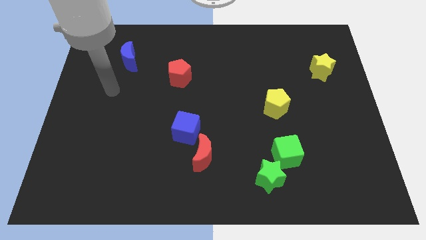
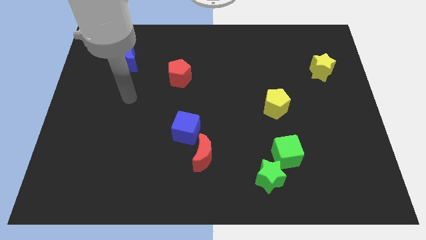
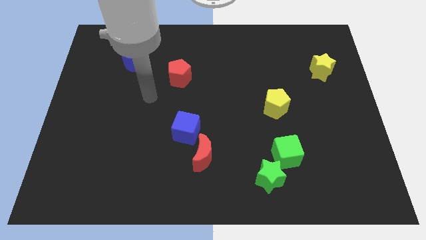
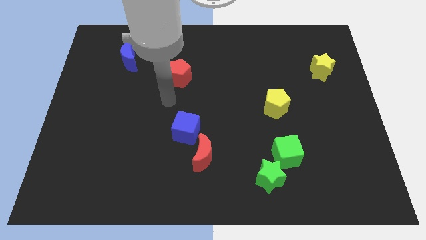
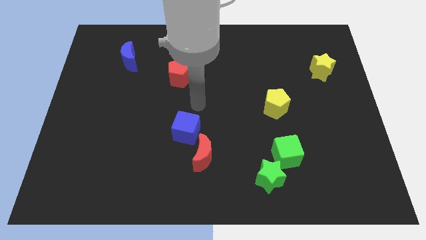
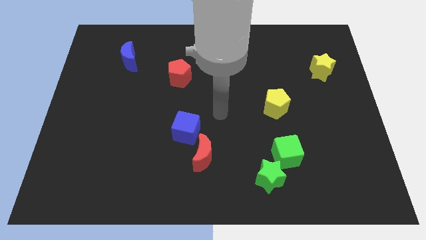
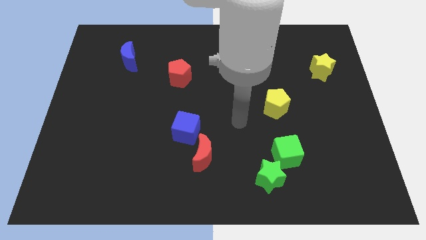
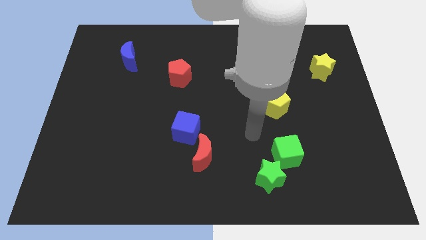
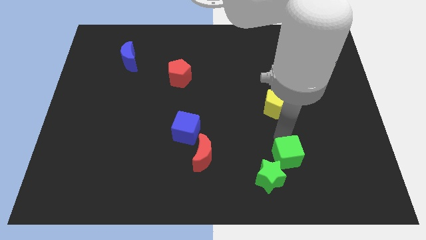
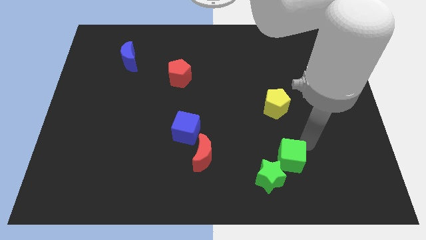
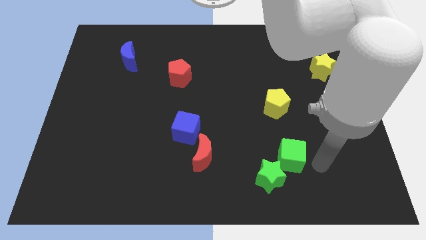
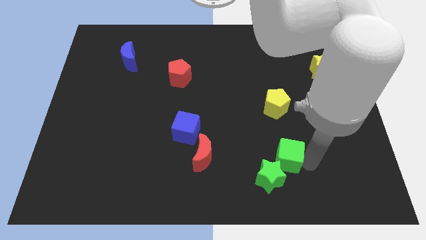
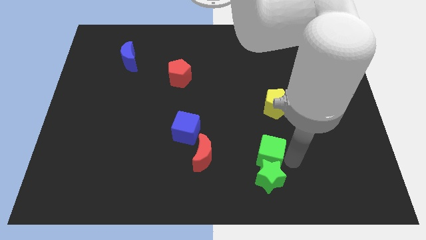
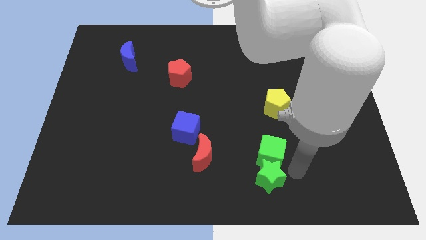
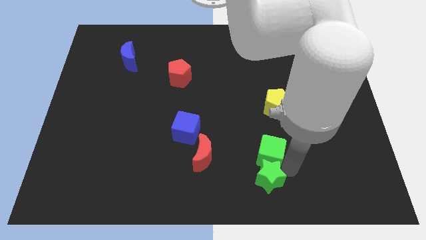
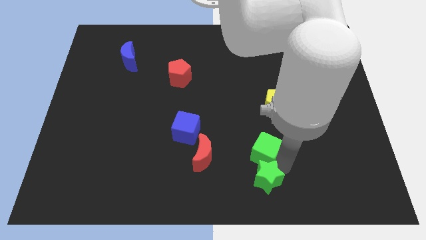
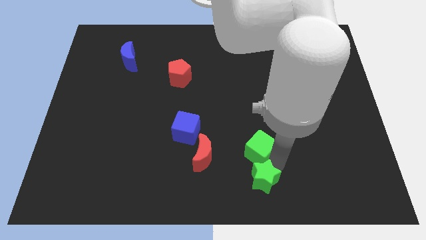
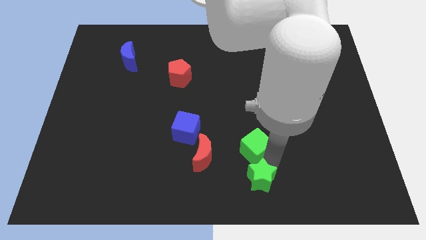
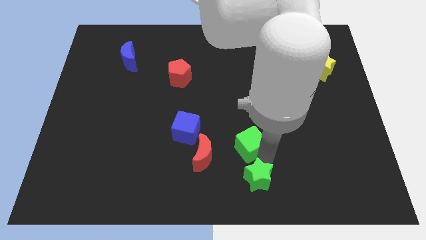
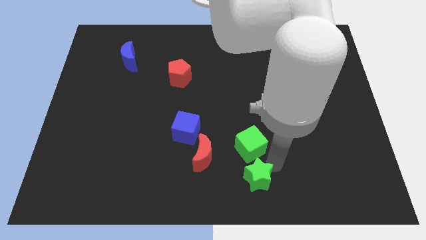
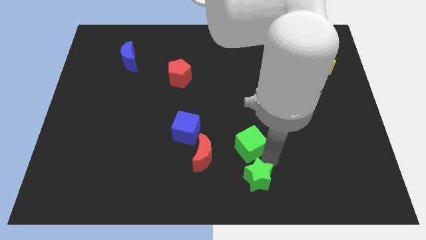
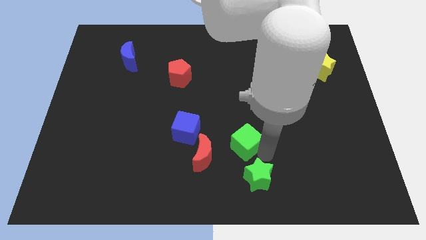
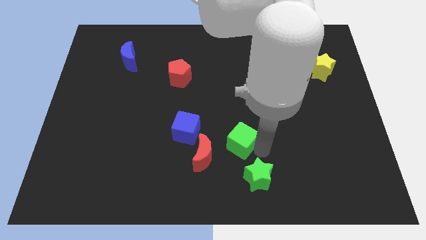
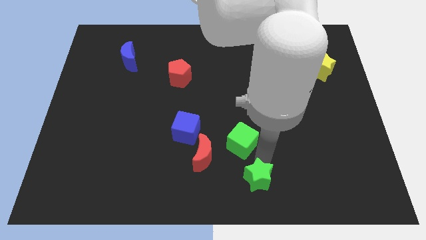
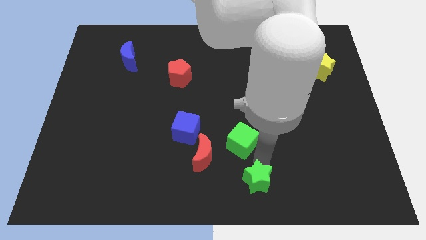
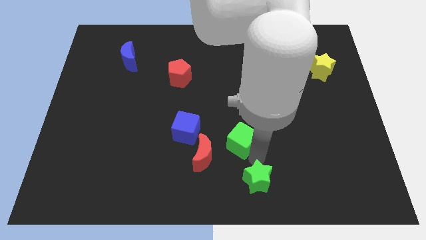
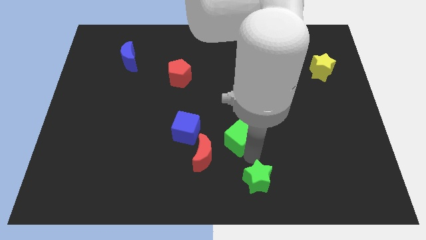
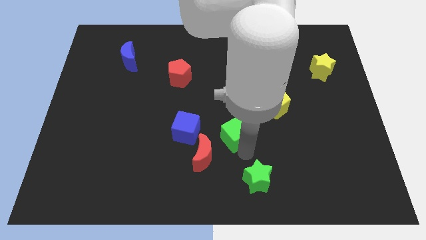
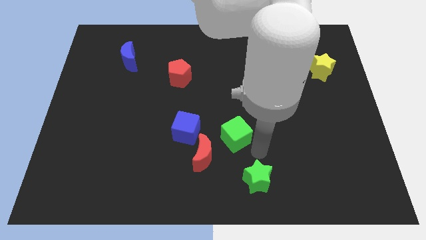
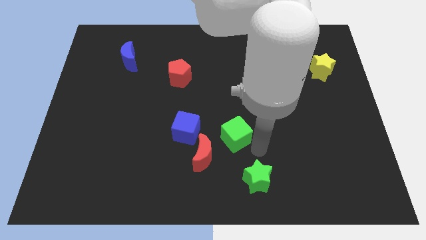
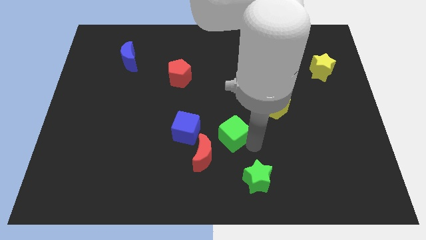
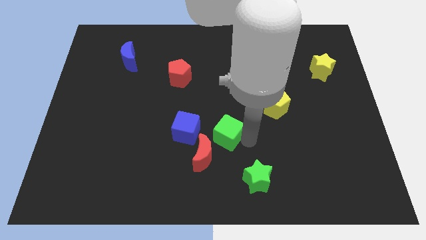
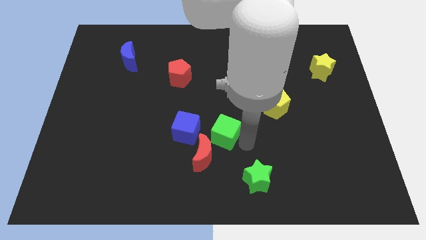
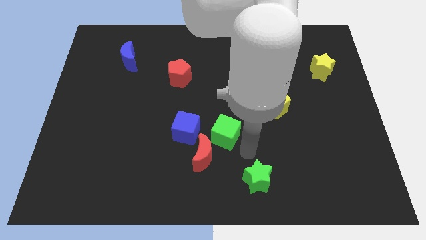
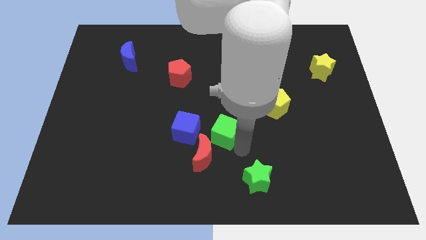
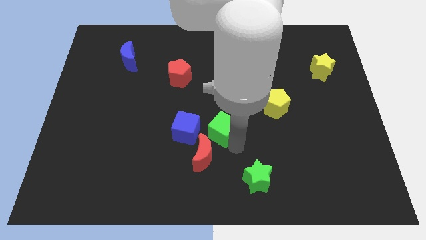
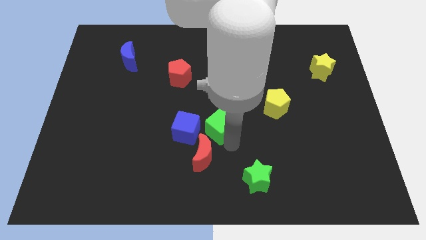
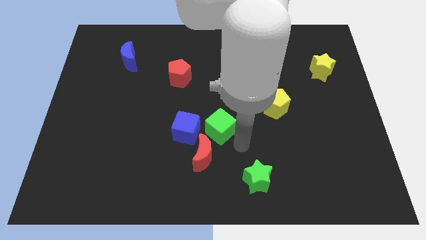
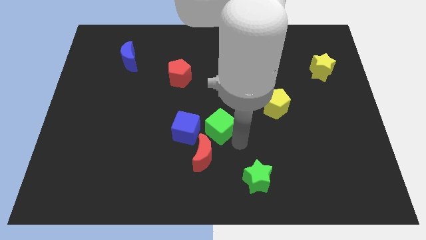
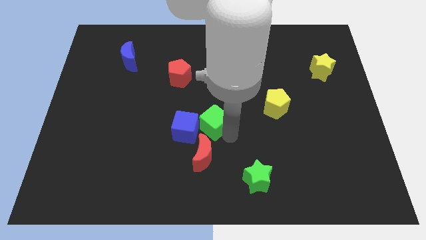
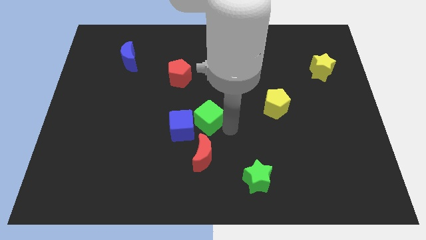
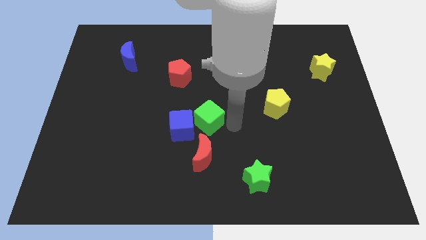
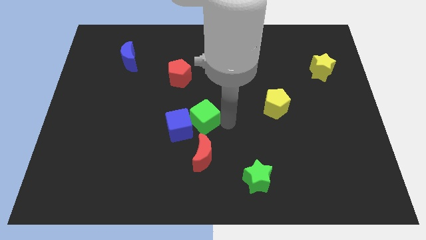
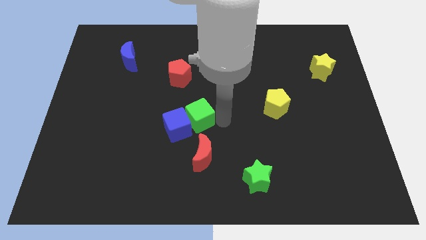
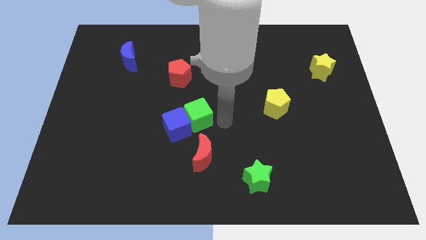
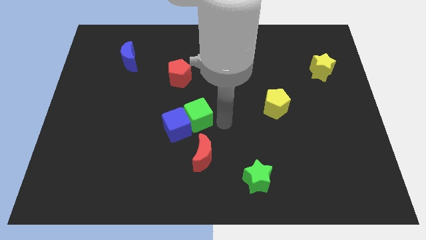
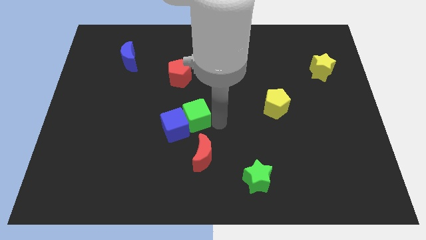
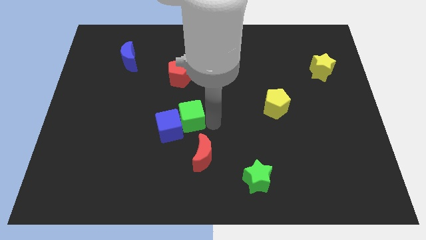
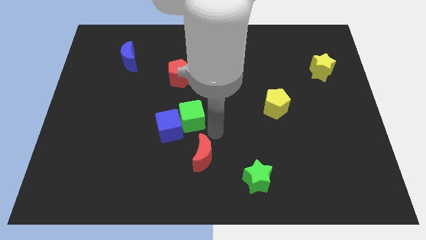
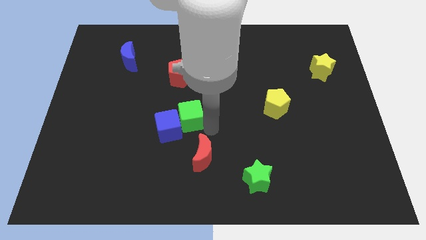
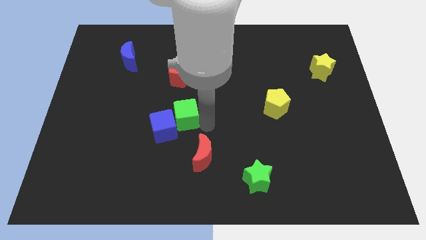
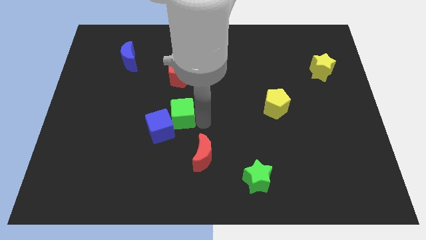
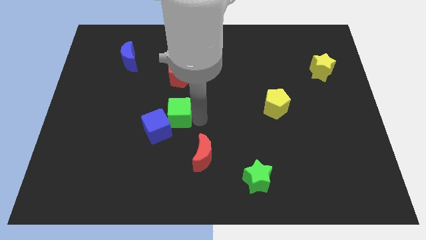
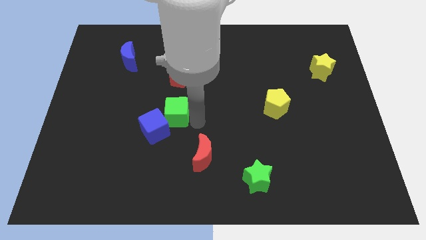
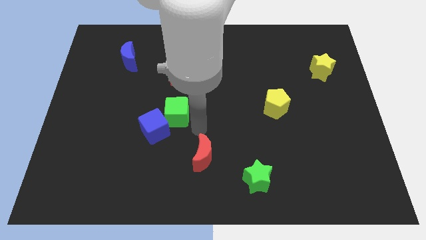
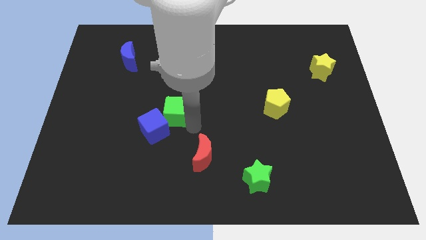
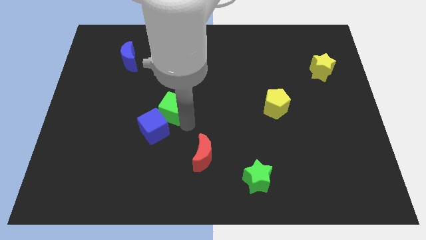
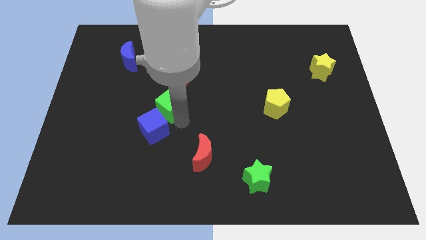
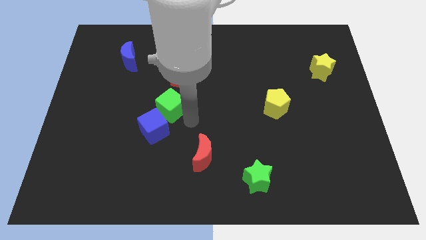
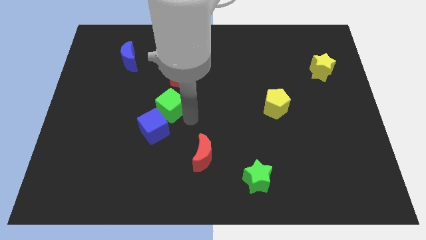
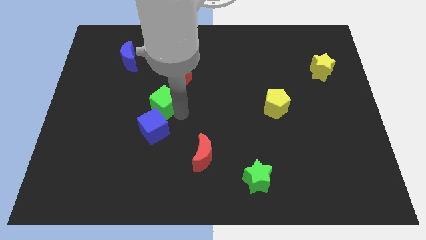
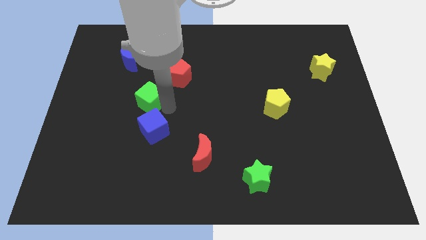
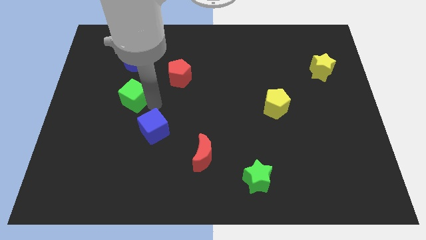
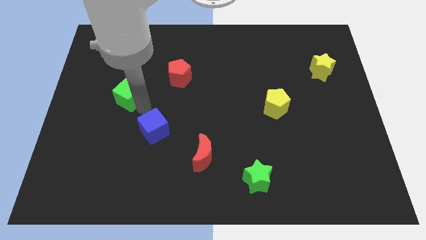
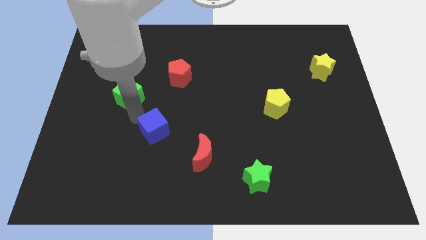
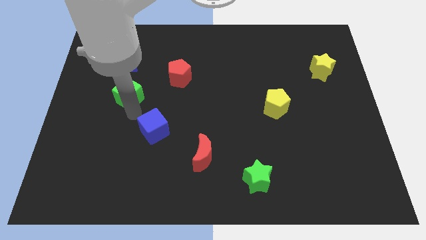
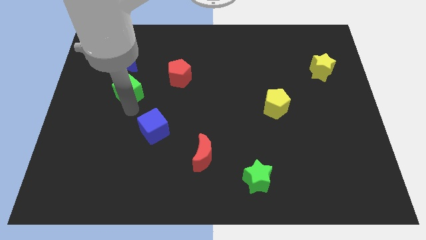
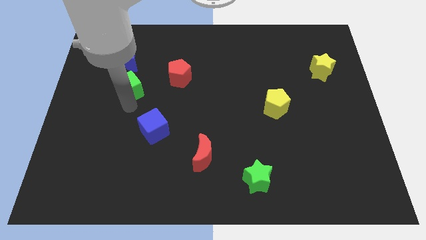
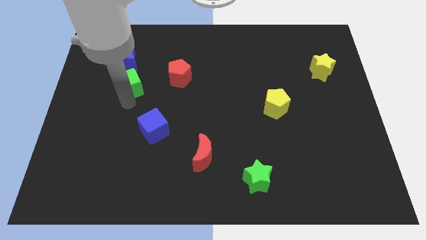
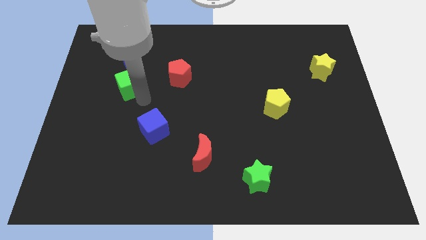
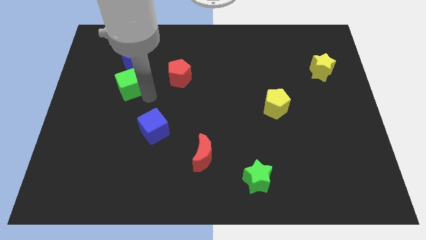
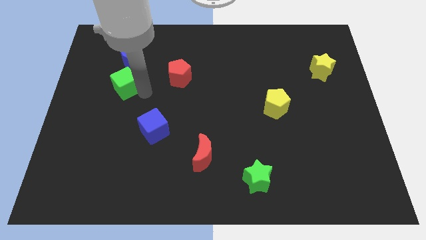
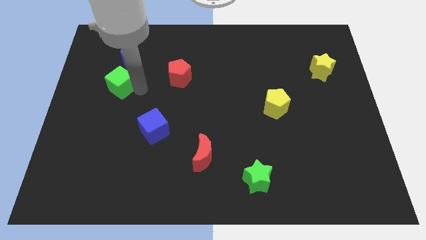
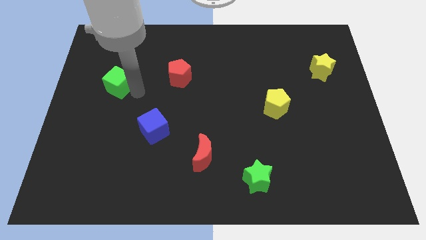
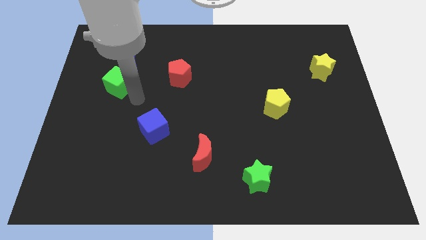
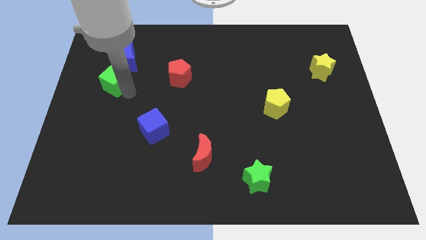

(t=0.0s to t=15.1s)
move the green cube diagonally down and to the left of the blue moon
